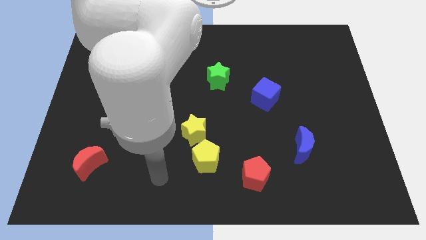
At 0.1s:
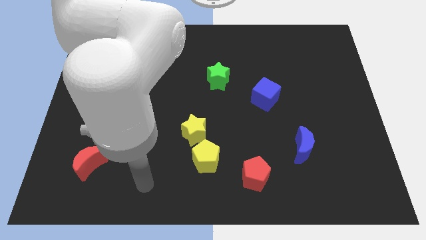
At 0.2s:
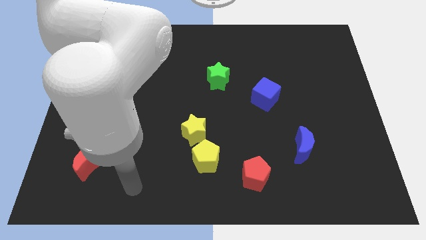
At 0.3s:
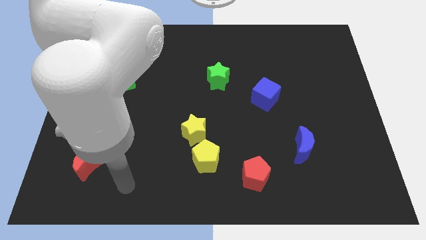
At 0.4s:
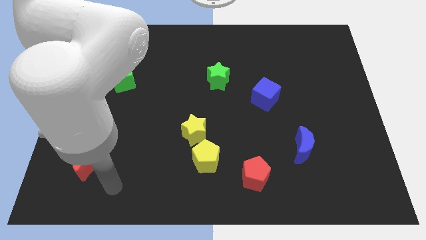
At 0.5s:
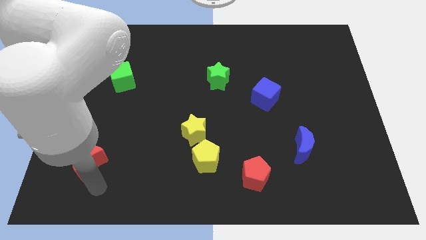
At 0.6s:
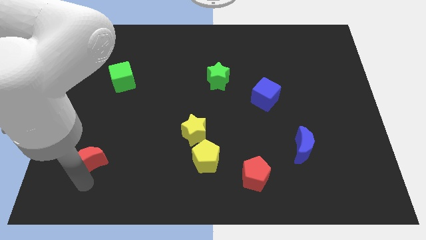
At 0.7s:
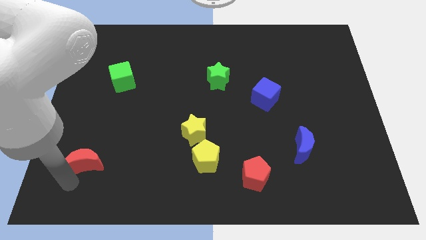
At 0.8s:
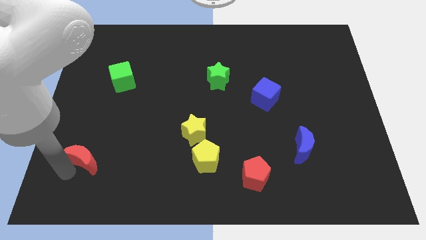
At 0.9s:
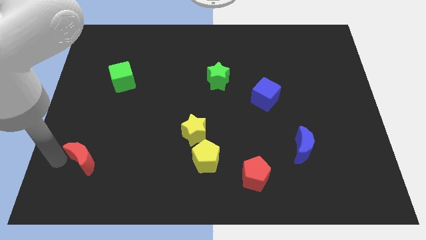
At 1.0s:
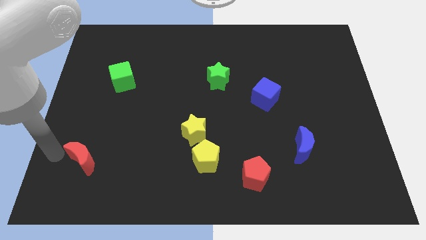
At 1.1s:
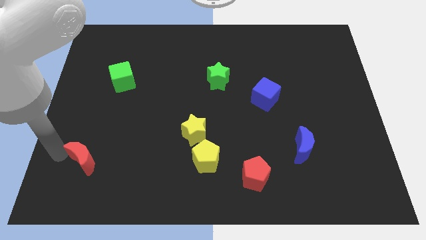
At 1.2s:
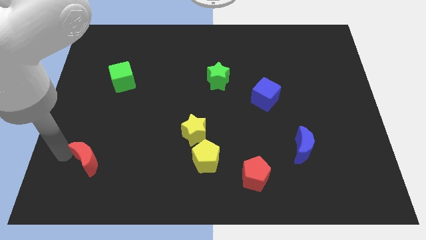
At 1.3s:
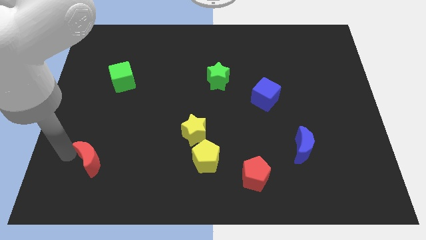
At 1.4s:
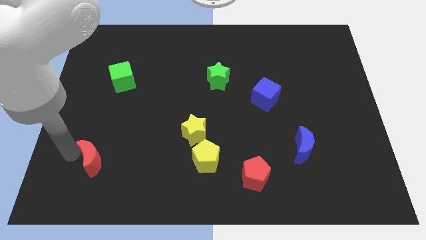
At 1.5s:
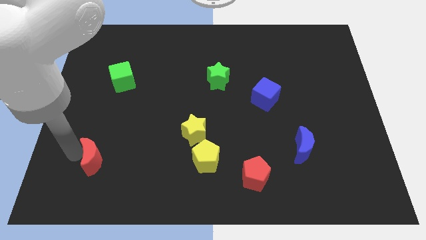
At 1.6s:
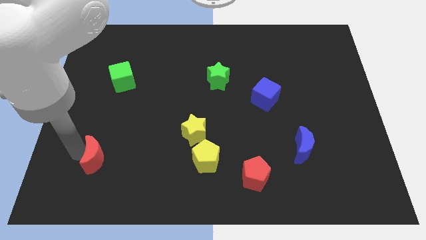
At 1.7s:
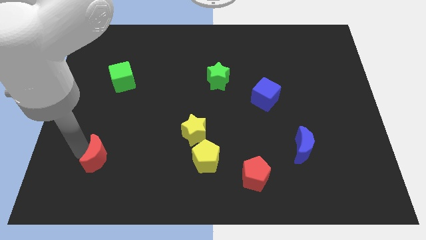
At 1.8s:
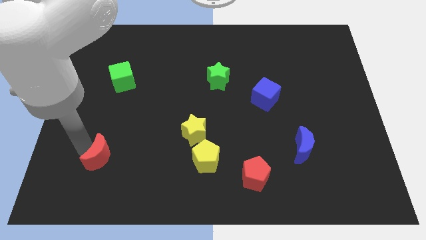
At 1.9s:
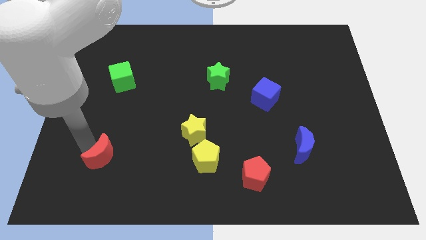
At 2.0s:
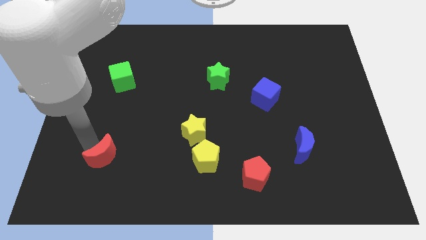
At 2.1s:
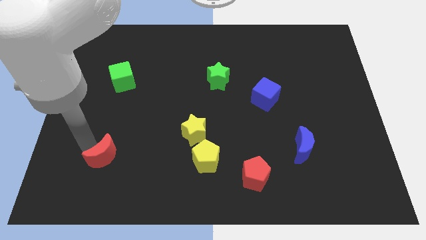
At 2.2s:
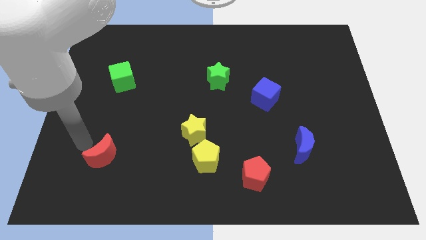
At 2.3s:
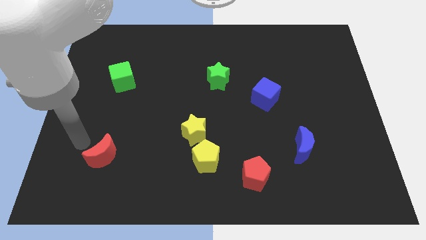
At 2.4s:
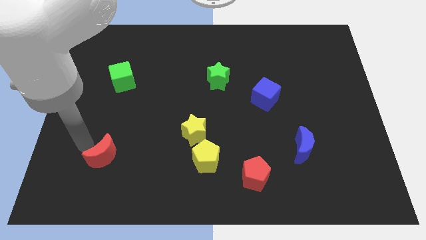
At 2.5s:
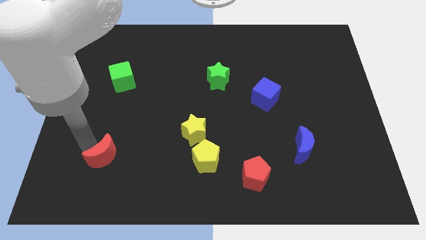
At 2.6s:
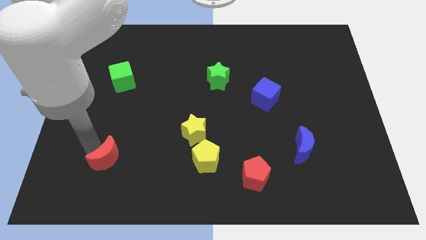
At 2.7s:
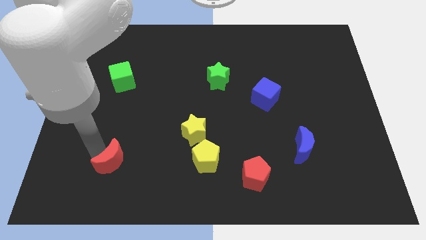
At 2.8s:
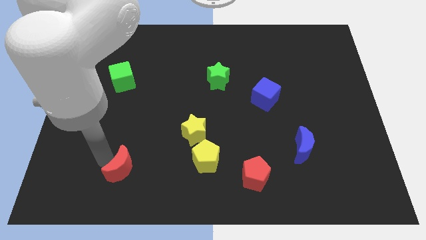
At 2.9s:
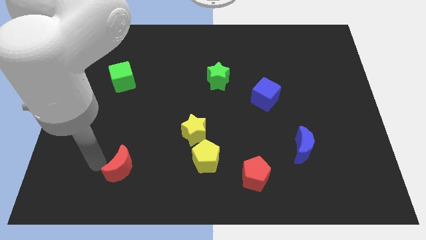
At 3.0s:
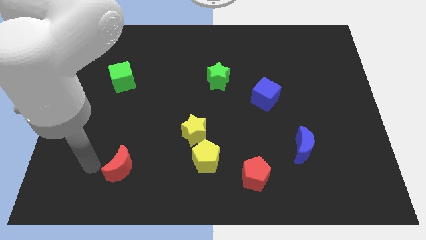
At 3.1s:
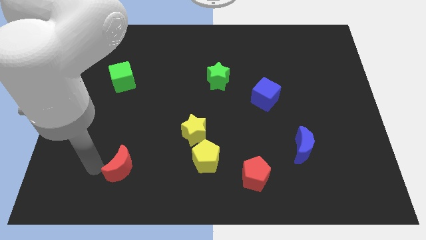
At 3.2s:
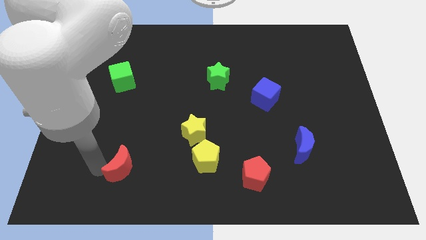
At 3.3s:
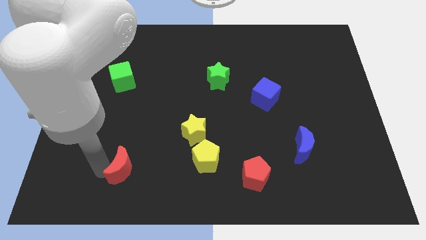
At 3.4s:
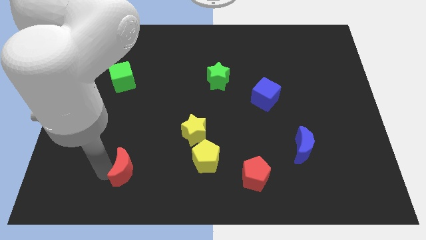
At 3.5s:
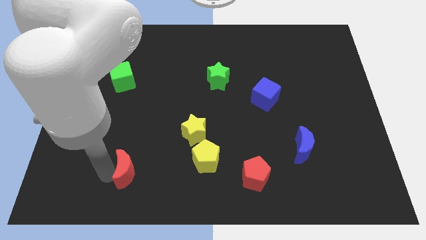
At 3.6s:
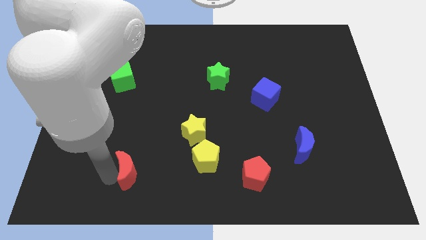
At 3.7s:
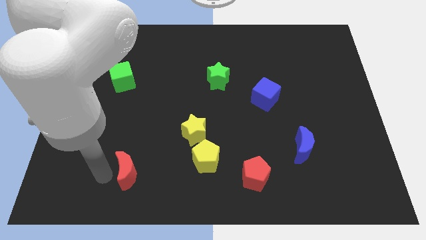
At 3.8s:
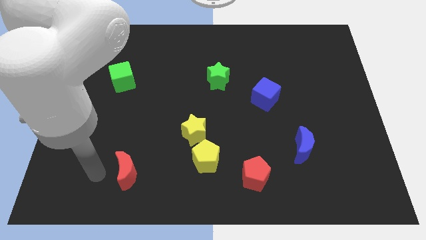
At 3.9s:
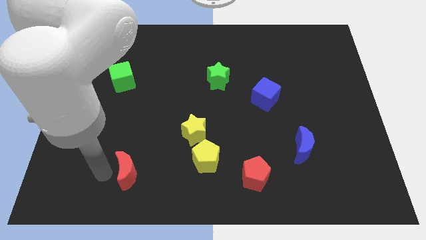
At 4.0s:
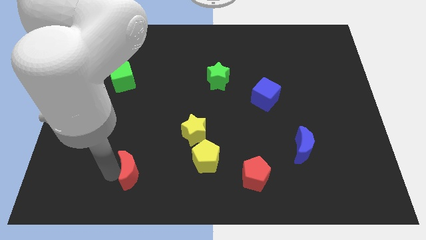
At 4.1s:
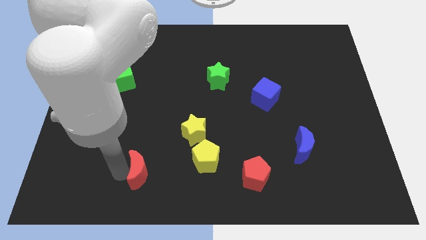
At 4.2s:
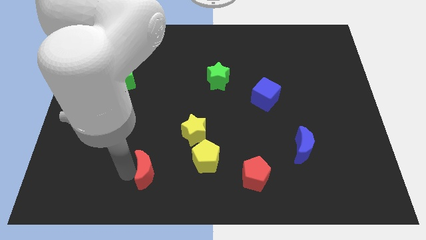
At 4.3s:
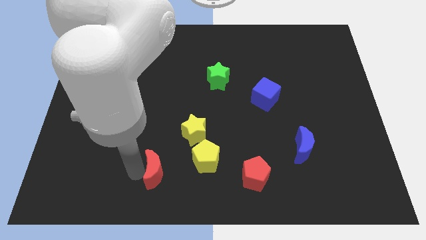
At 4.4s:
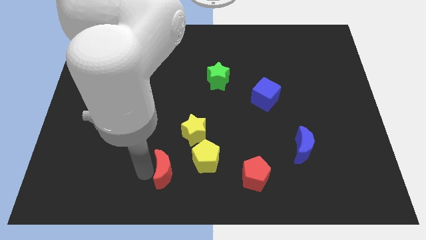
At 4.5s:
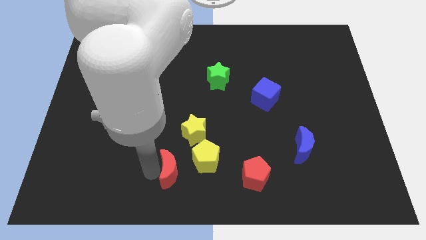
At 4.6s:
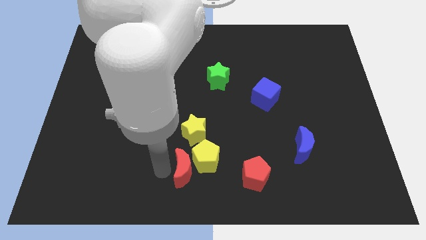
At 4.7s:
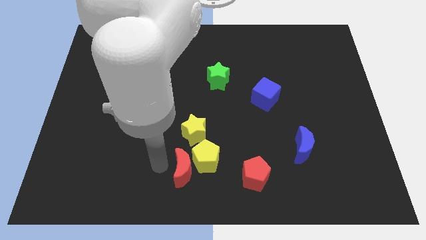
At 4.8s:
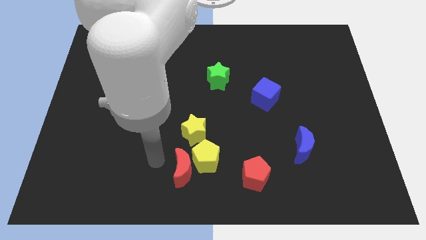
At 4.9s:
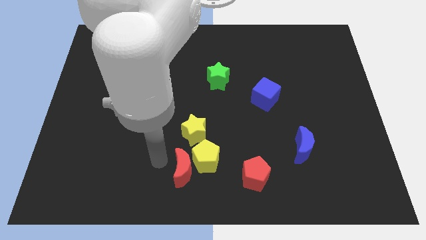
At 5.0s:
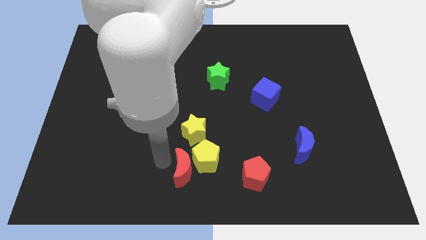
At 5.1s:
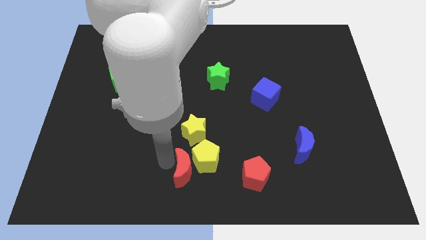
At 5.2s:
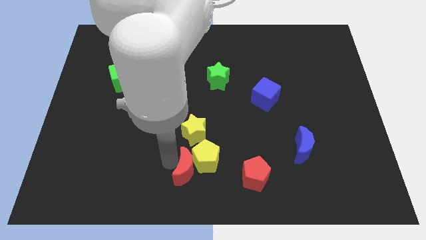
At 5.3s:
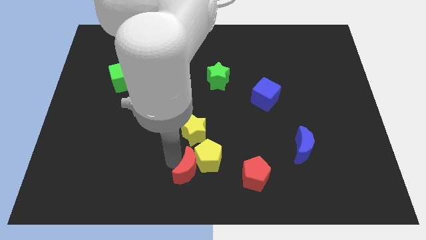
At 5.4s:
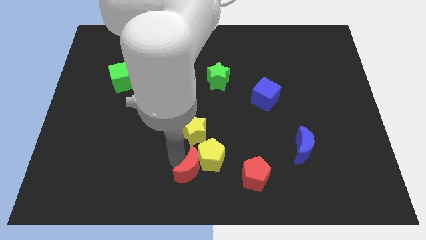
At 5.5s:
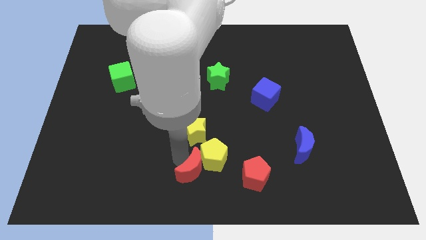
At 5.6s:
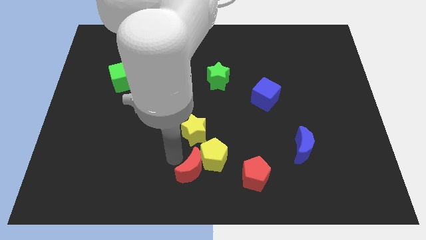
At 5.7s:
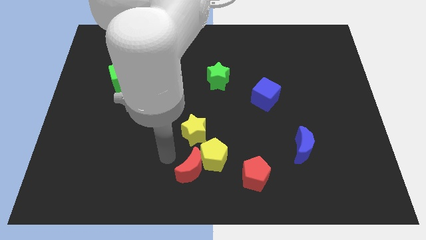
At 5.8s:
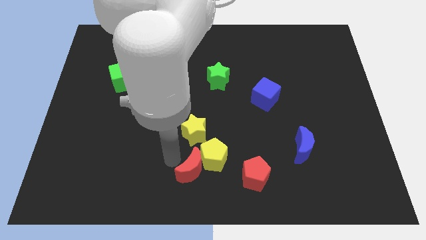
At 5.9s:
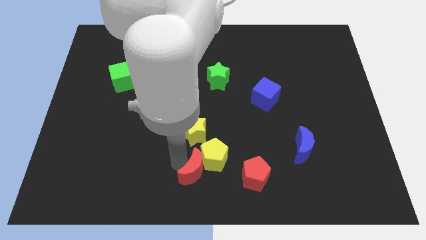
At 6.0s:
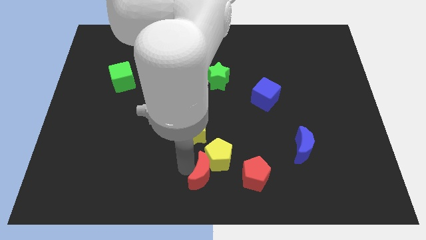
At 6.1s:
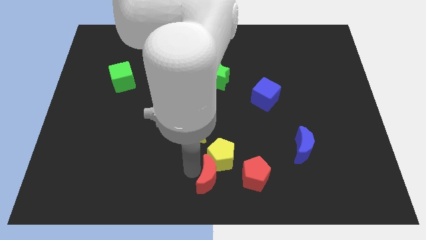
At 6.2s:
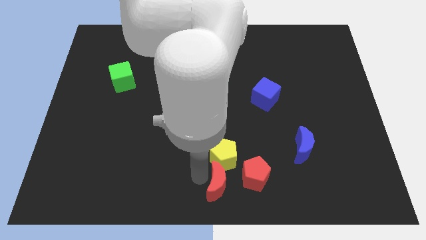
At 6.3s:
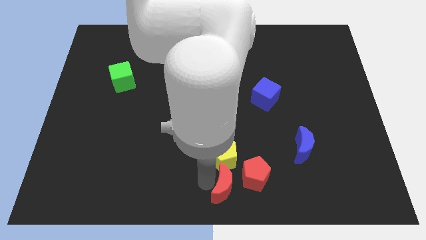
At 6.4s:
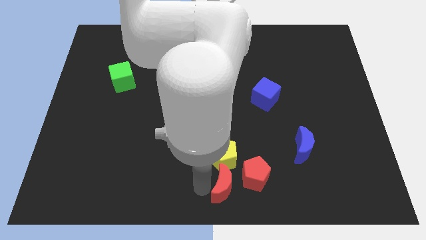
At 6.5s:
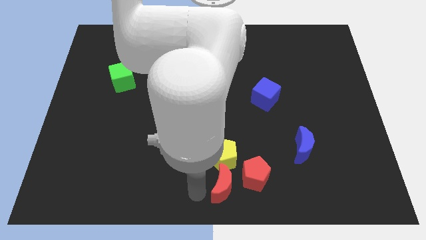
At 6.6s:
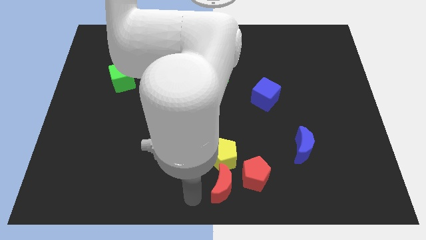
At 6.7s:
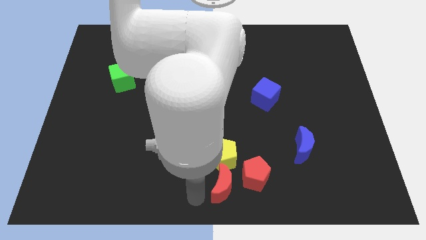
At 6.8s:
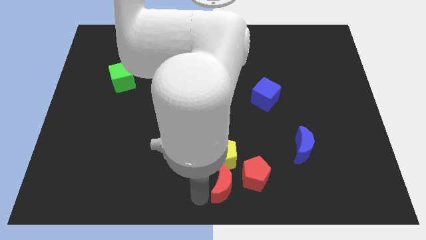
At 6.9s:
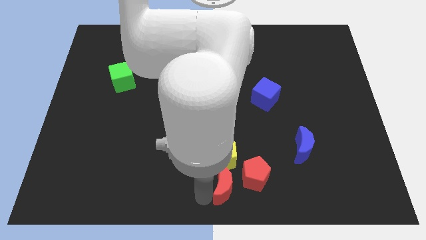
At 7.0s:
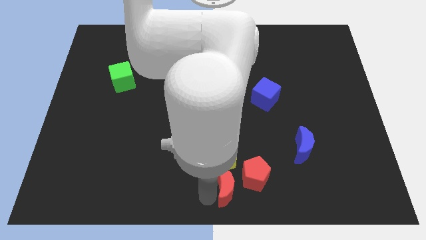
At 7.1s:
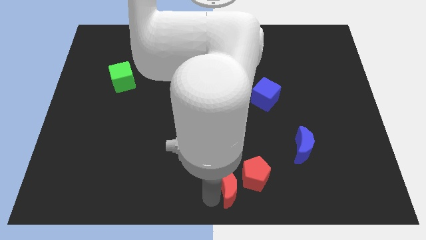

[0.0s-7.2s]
put the red moon to the red pentagon
